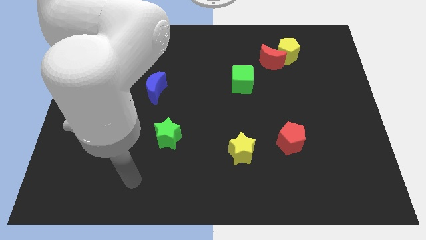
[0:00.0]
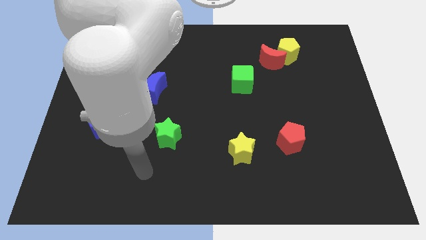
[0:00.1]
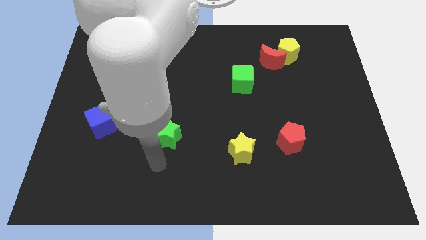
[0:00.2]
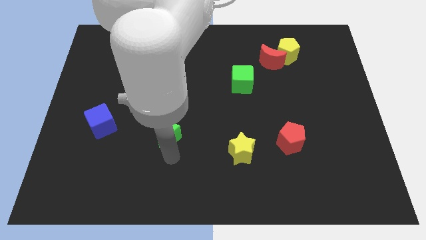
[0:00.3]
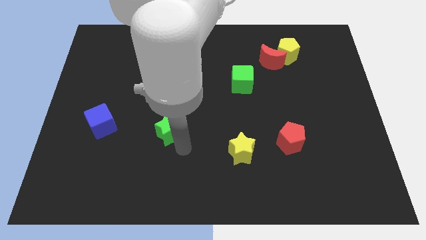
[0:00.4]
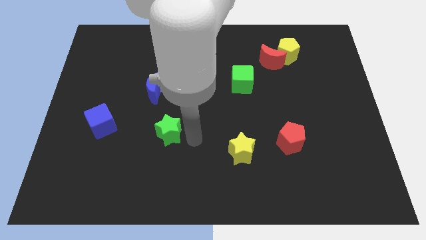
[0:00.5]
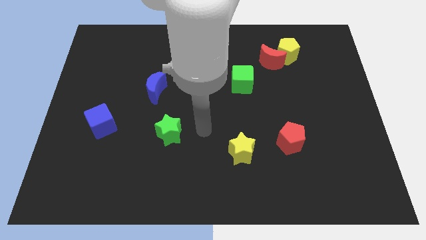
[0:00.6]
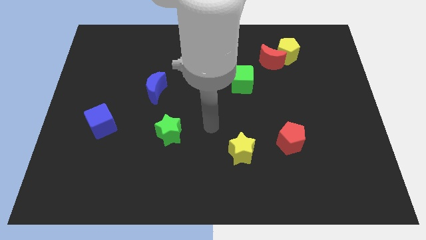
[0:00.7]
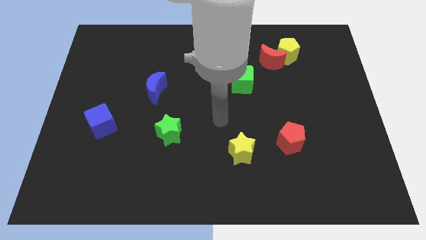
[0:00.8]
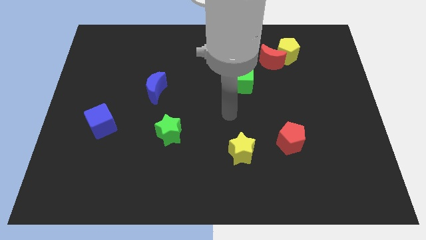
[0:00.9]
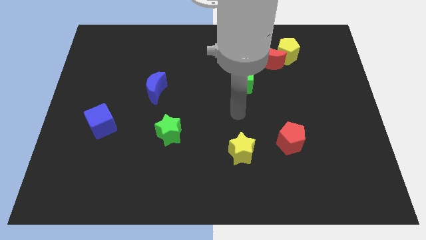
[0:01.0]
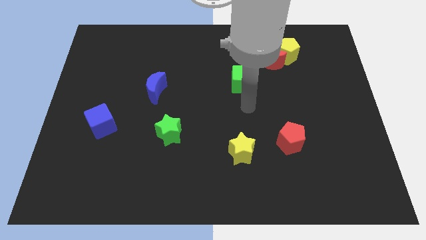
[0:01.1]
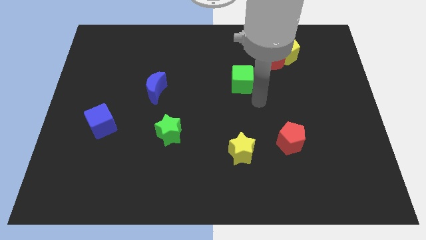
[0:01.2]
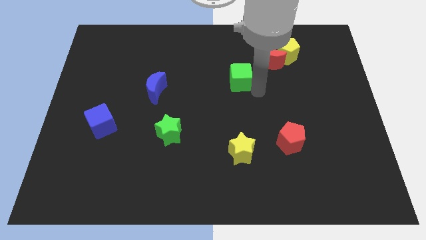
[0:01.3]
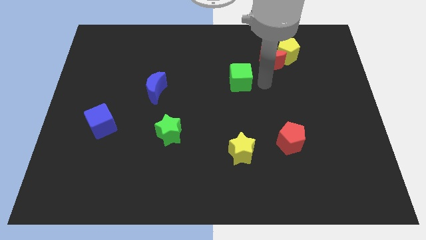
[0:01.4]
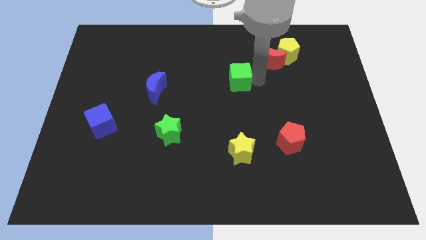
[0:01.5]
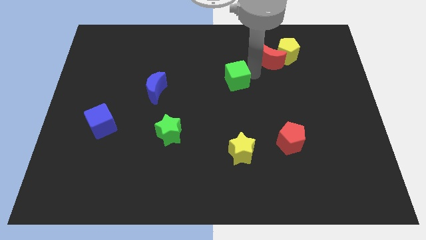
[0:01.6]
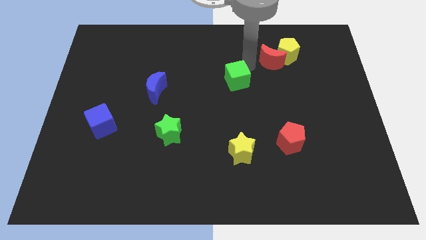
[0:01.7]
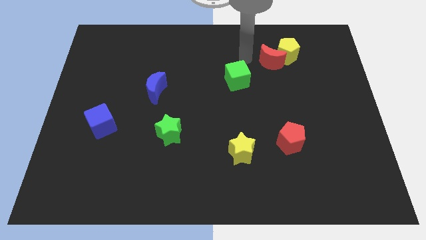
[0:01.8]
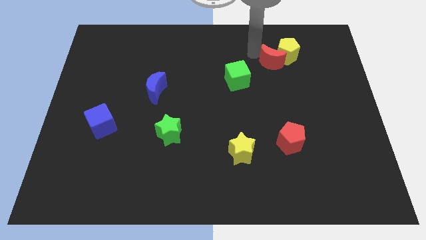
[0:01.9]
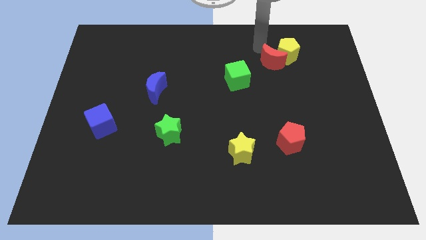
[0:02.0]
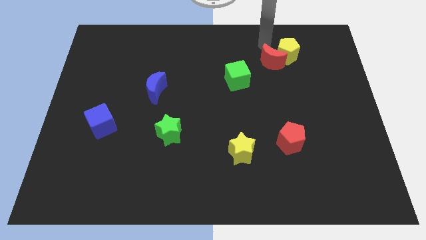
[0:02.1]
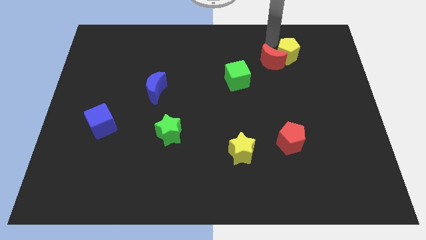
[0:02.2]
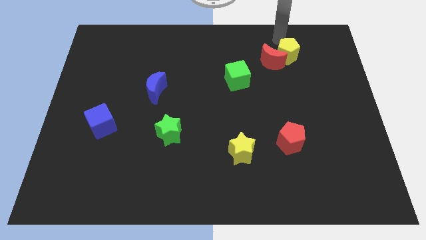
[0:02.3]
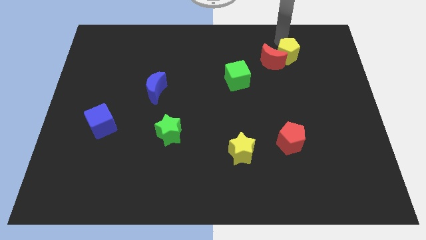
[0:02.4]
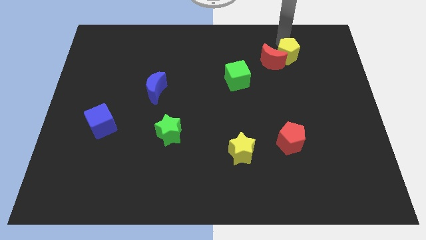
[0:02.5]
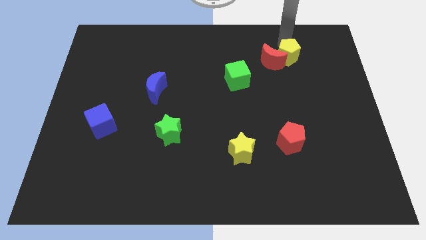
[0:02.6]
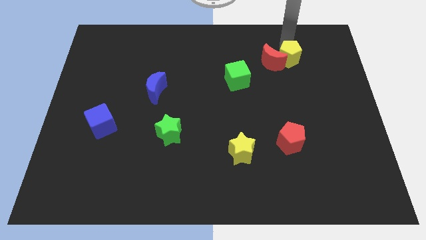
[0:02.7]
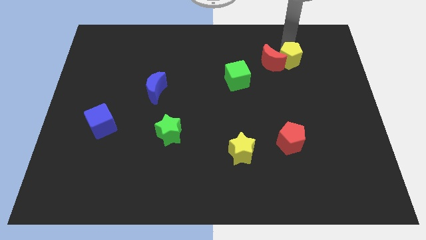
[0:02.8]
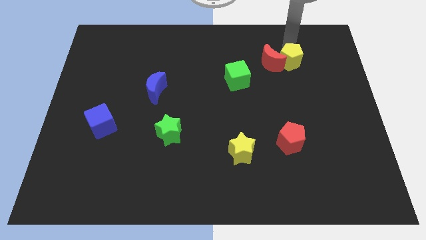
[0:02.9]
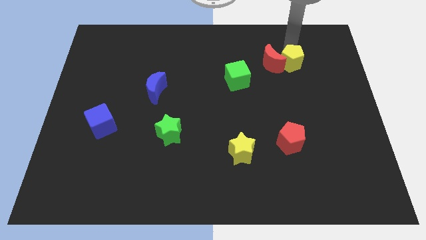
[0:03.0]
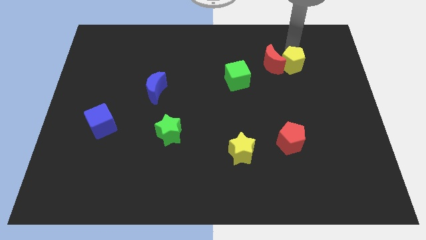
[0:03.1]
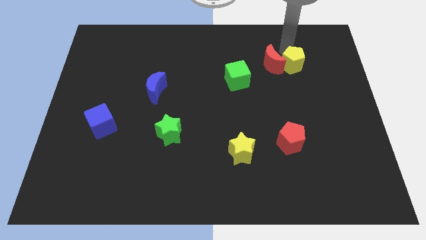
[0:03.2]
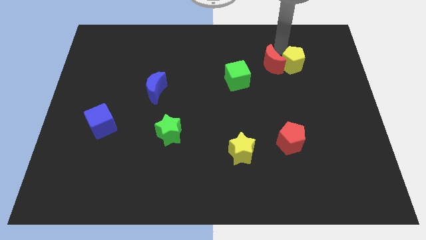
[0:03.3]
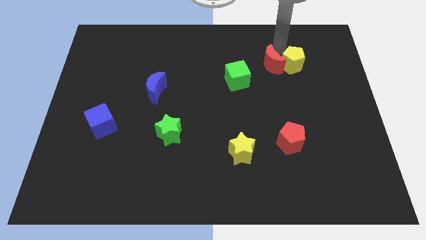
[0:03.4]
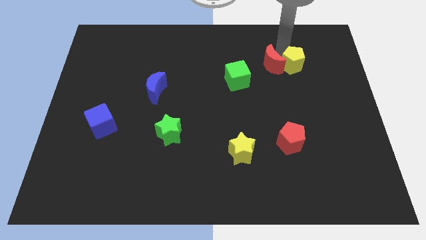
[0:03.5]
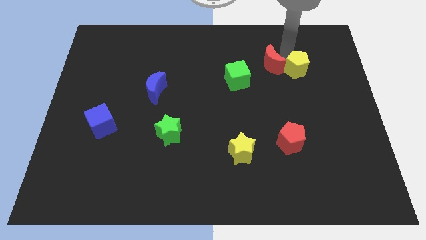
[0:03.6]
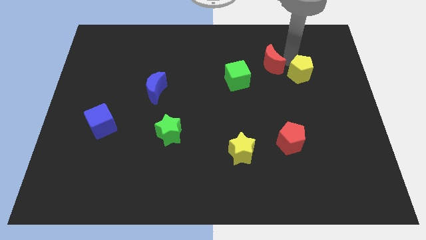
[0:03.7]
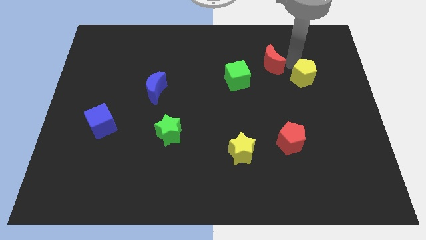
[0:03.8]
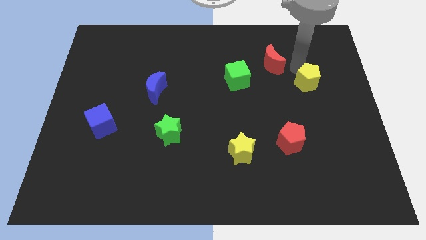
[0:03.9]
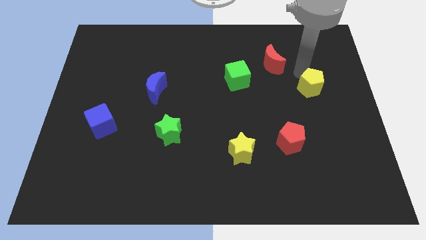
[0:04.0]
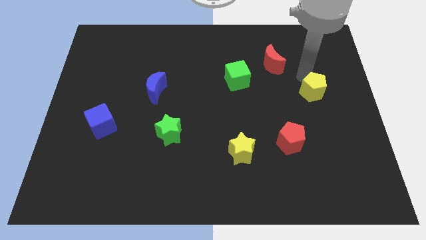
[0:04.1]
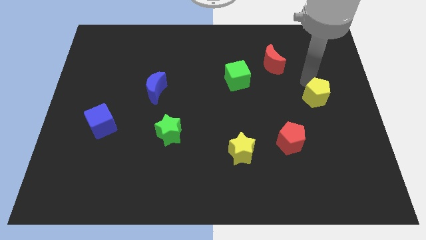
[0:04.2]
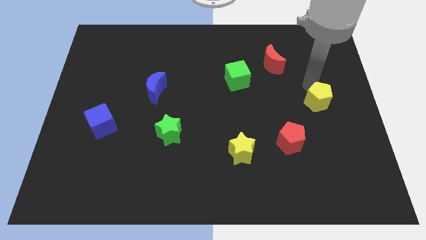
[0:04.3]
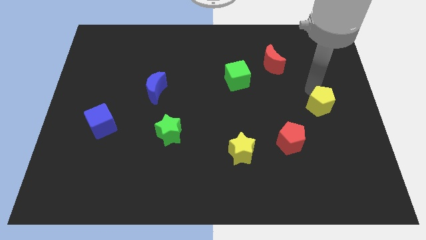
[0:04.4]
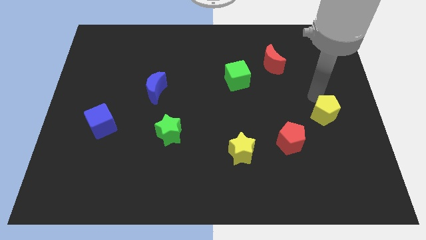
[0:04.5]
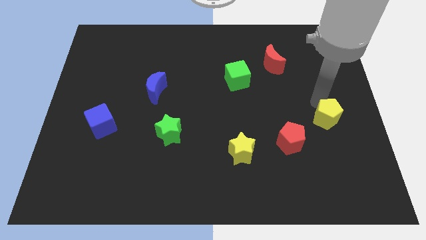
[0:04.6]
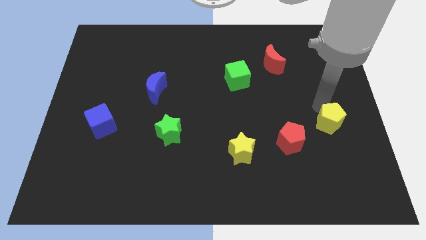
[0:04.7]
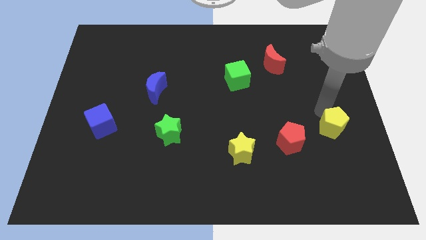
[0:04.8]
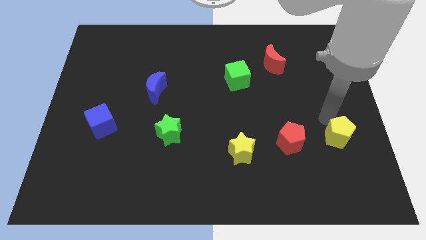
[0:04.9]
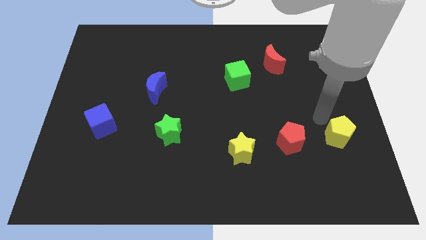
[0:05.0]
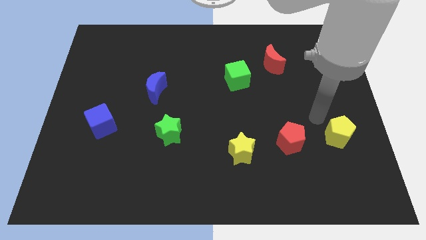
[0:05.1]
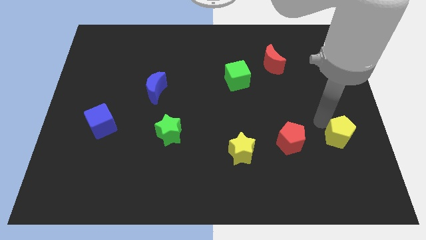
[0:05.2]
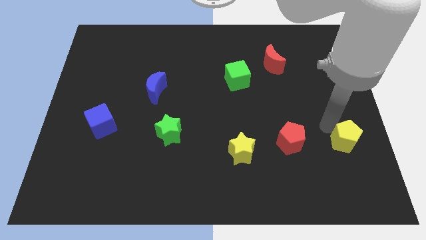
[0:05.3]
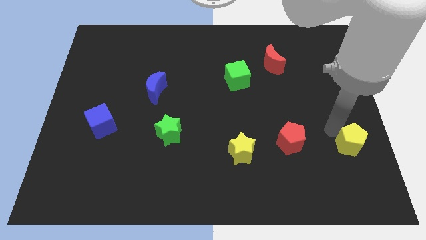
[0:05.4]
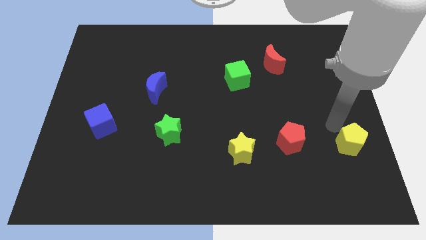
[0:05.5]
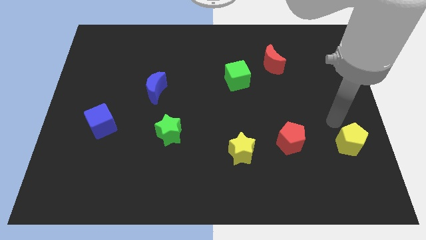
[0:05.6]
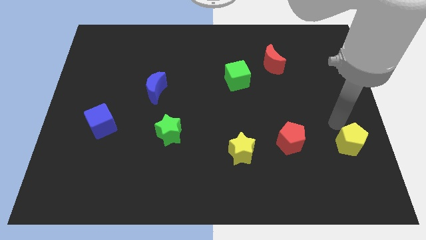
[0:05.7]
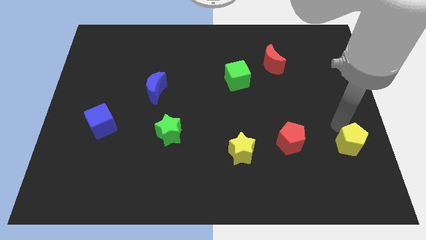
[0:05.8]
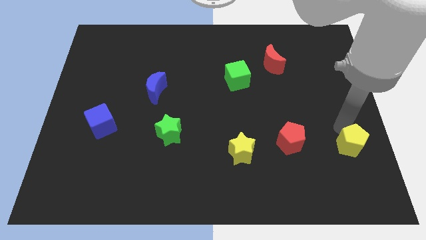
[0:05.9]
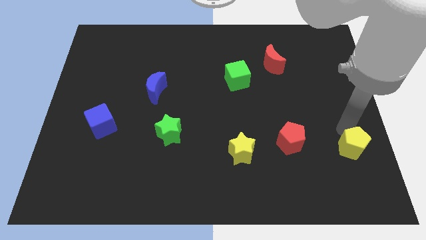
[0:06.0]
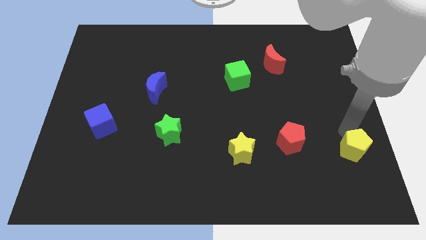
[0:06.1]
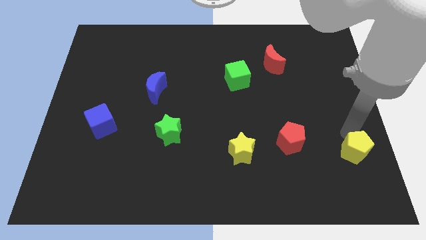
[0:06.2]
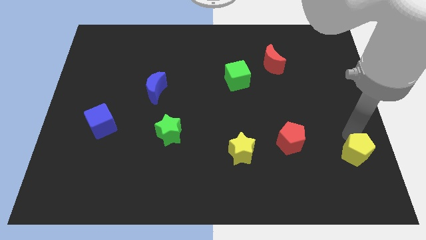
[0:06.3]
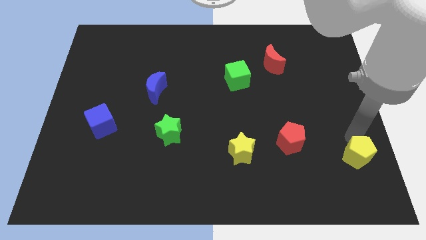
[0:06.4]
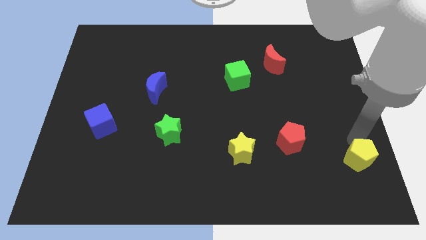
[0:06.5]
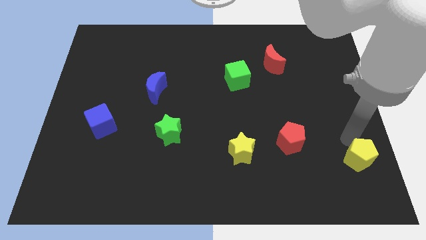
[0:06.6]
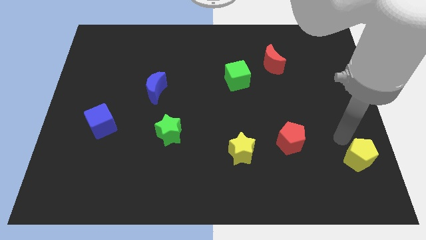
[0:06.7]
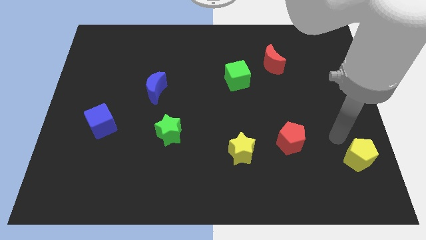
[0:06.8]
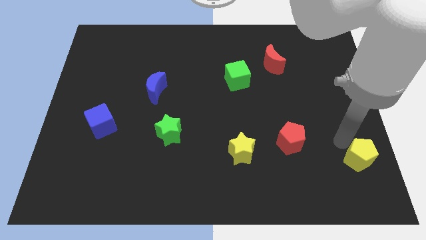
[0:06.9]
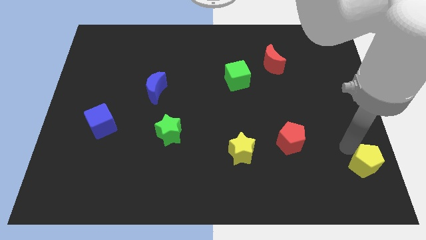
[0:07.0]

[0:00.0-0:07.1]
put the yellow pentagon to the bottom right corner
